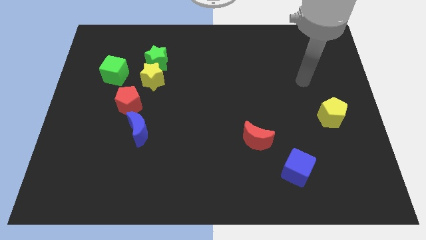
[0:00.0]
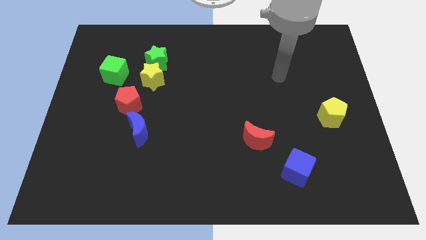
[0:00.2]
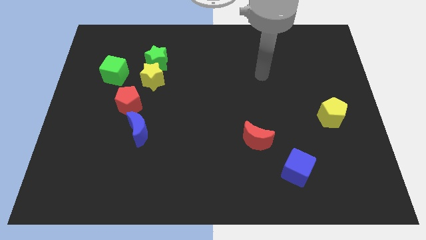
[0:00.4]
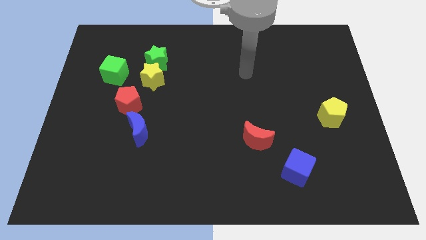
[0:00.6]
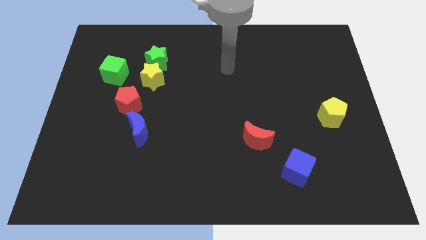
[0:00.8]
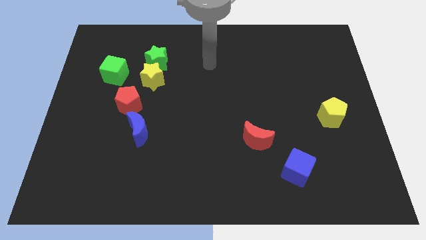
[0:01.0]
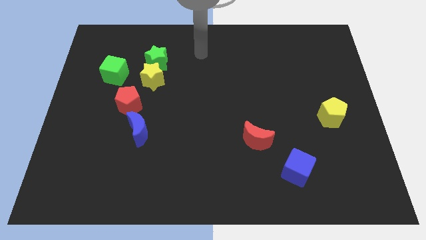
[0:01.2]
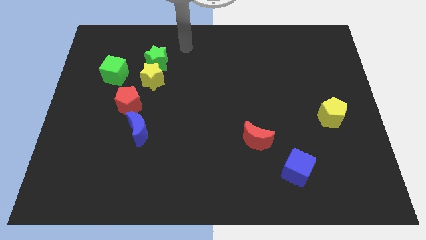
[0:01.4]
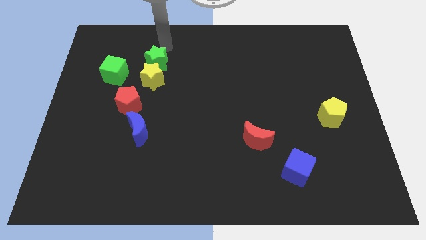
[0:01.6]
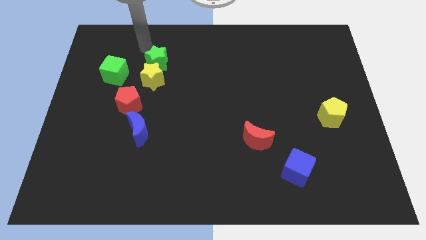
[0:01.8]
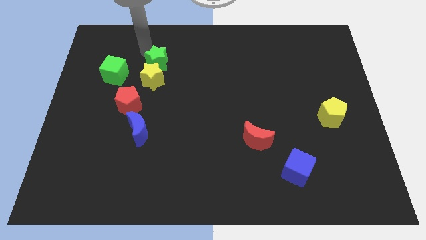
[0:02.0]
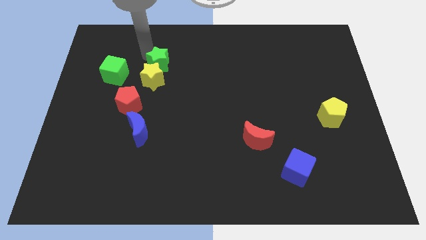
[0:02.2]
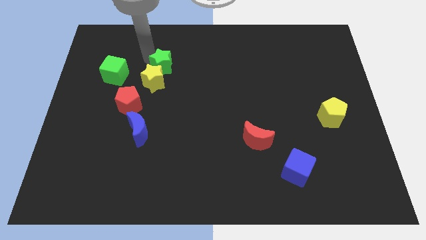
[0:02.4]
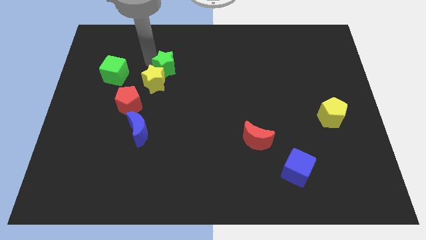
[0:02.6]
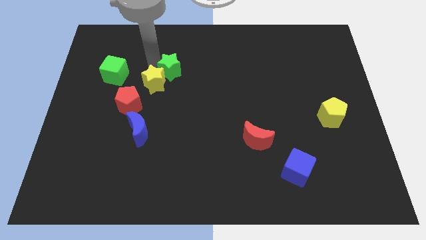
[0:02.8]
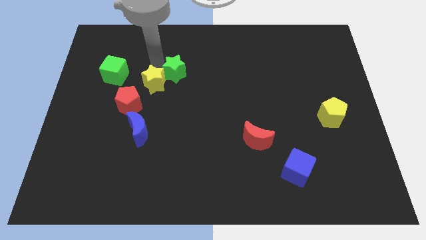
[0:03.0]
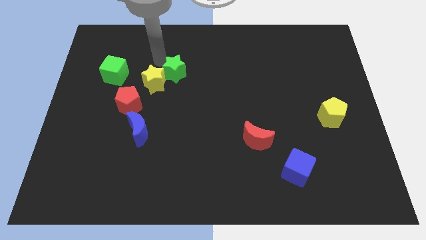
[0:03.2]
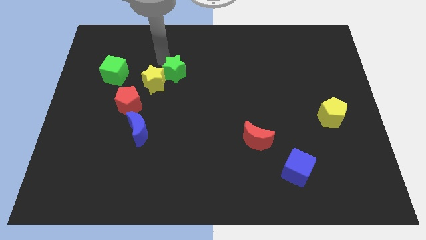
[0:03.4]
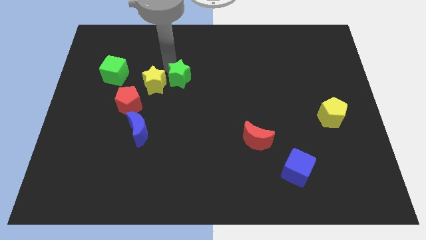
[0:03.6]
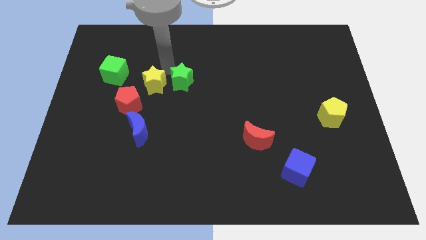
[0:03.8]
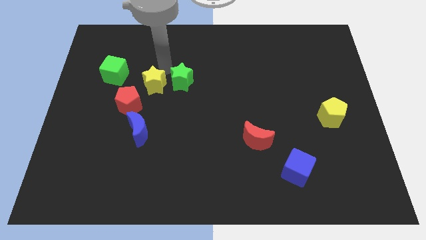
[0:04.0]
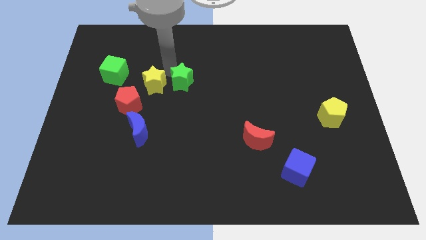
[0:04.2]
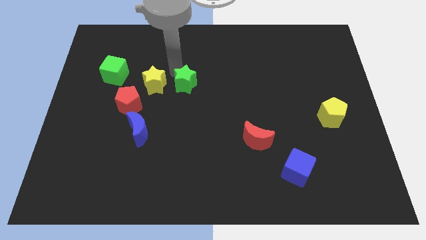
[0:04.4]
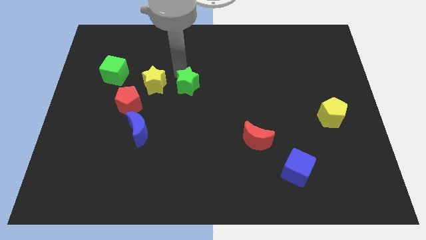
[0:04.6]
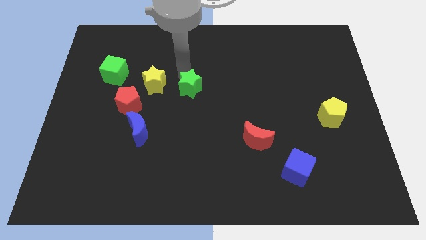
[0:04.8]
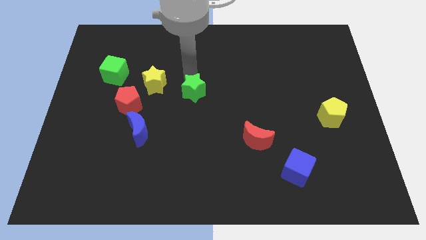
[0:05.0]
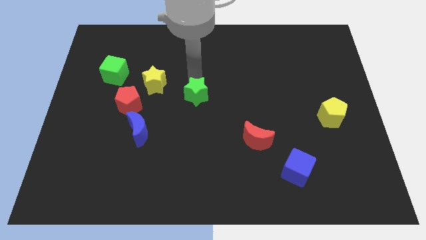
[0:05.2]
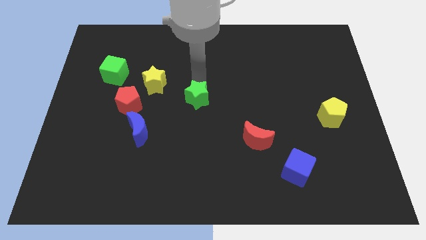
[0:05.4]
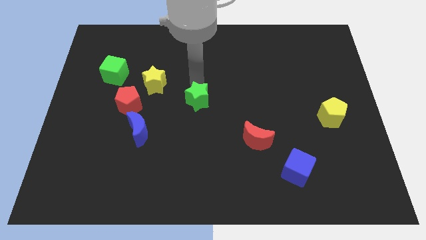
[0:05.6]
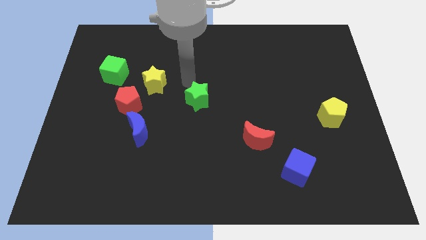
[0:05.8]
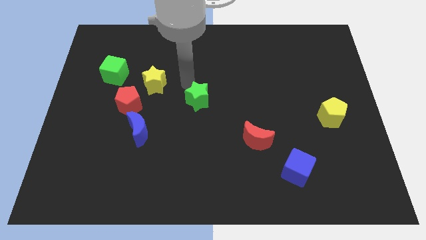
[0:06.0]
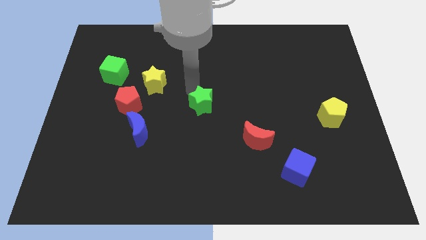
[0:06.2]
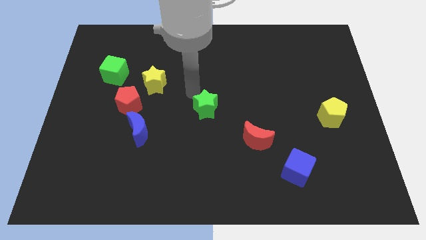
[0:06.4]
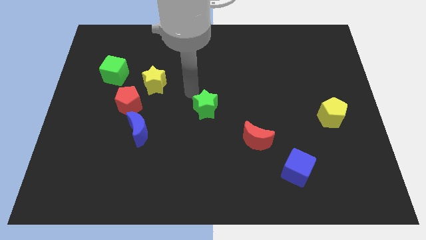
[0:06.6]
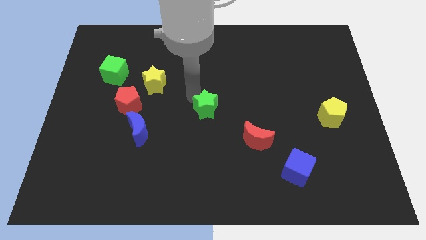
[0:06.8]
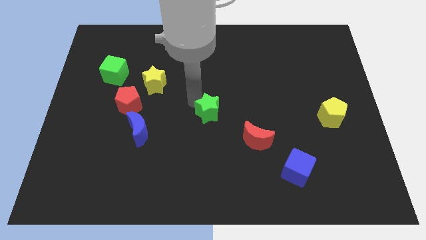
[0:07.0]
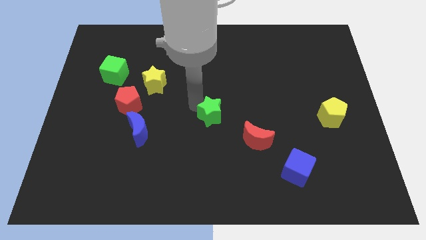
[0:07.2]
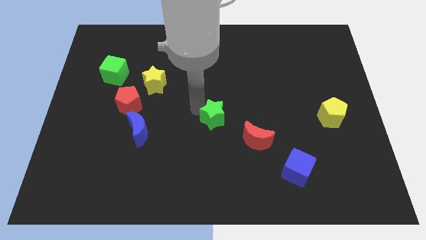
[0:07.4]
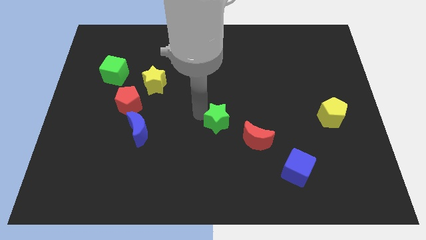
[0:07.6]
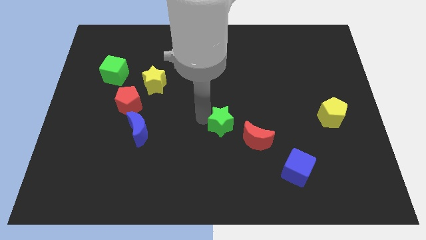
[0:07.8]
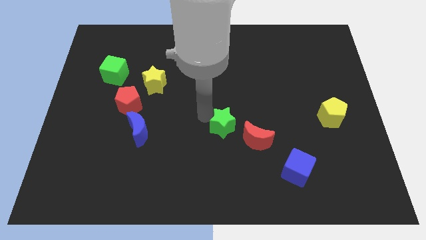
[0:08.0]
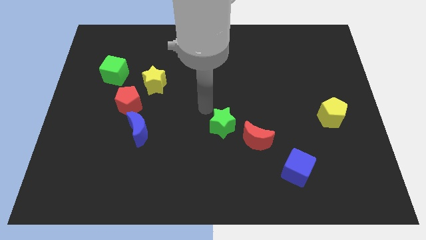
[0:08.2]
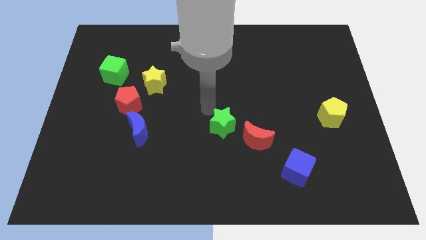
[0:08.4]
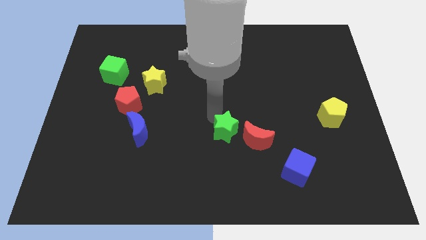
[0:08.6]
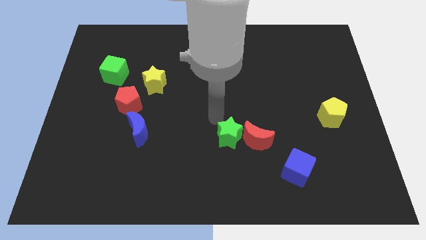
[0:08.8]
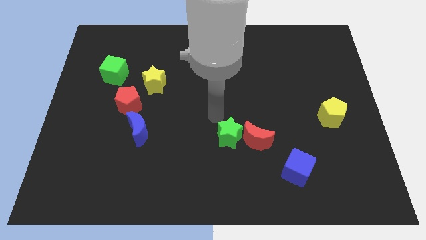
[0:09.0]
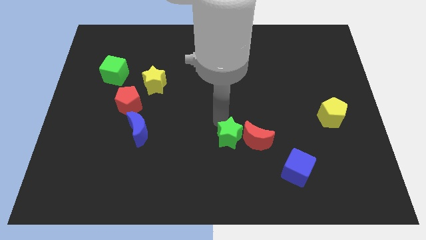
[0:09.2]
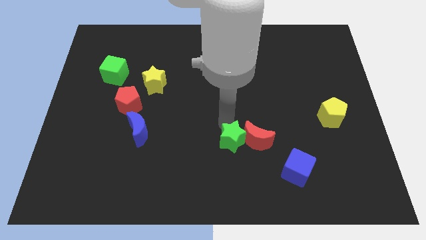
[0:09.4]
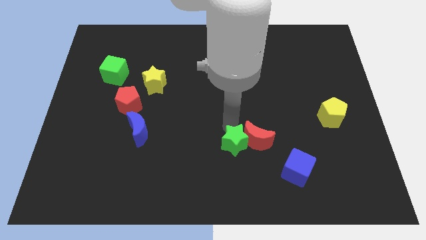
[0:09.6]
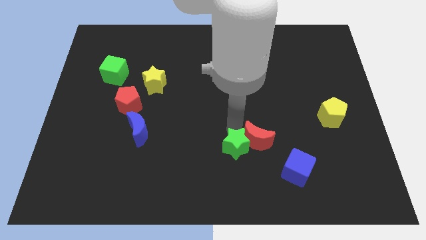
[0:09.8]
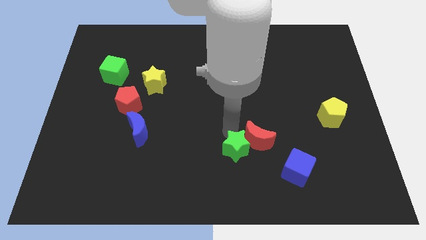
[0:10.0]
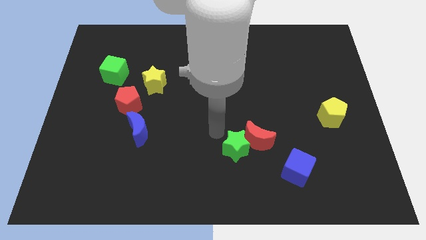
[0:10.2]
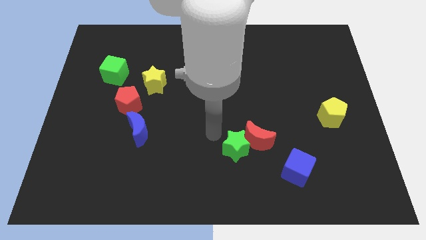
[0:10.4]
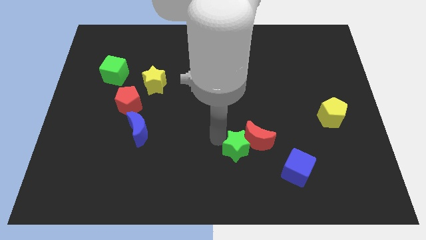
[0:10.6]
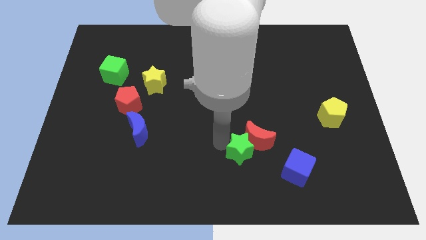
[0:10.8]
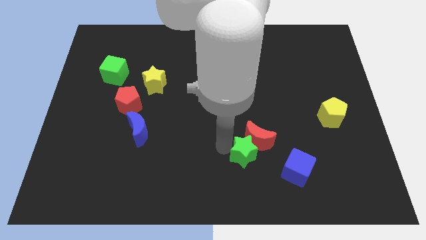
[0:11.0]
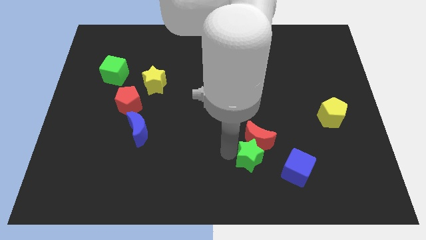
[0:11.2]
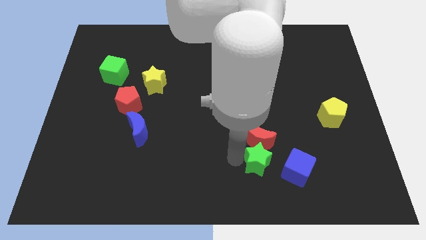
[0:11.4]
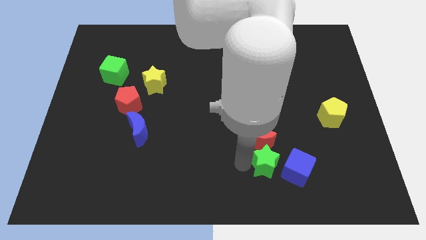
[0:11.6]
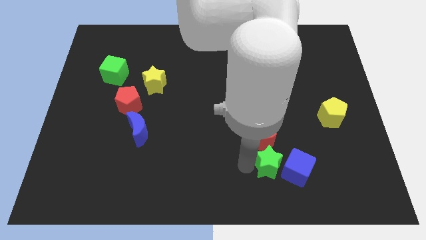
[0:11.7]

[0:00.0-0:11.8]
put the green star to the blue cube
